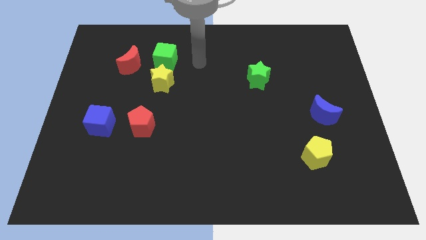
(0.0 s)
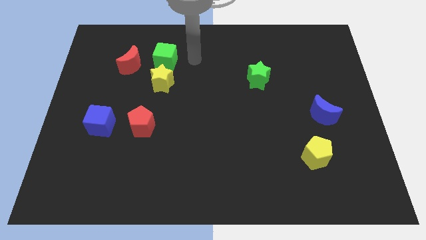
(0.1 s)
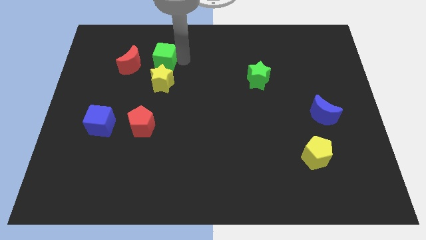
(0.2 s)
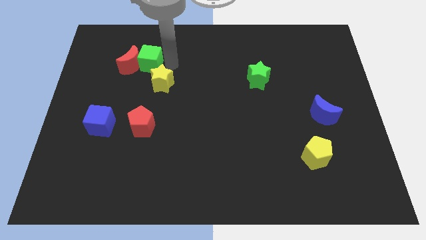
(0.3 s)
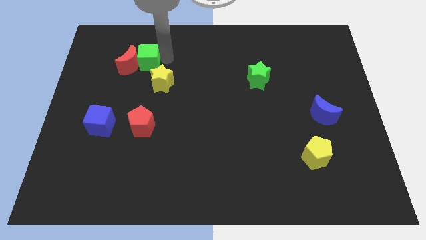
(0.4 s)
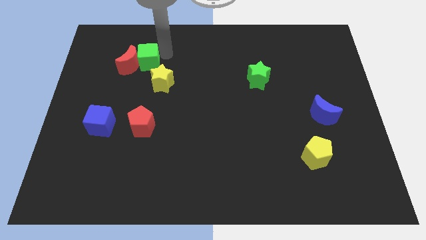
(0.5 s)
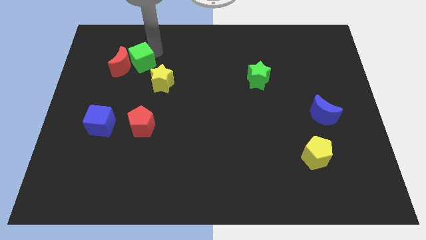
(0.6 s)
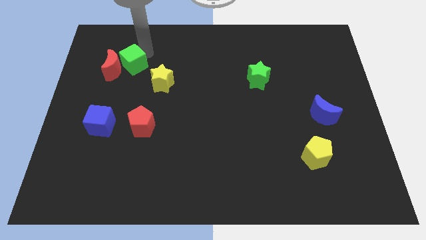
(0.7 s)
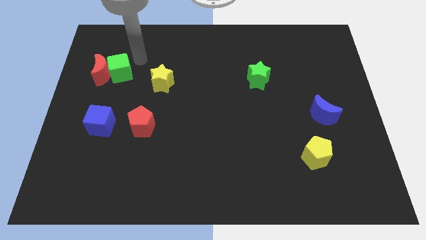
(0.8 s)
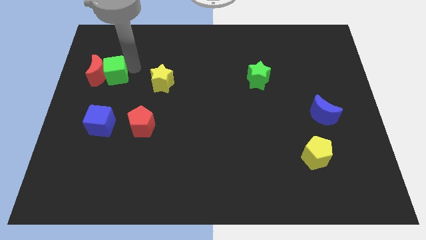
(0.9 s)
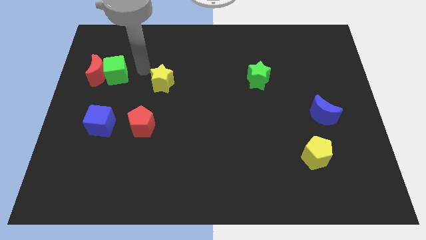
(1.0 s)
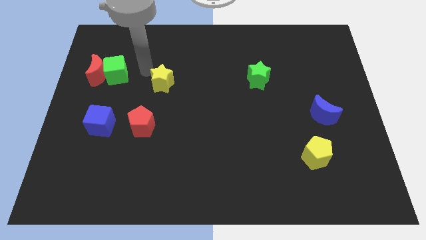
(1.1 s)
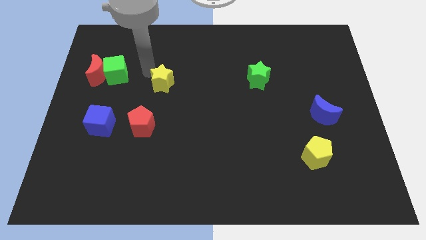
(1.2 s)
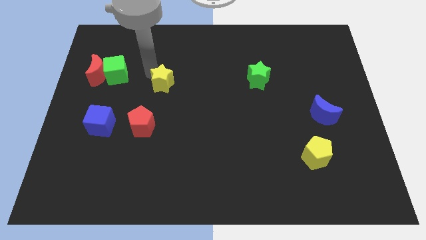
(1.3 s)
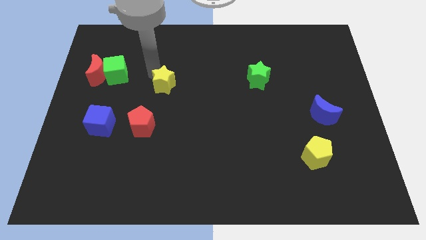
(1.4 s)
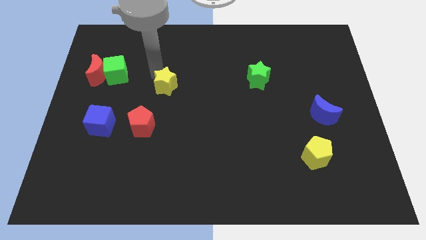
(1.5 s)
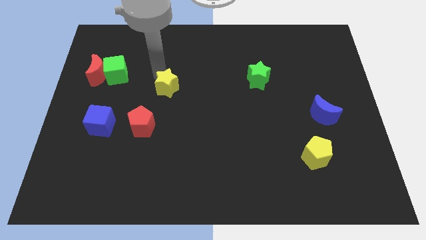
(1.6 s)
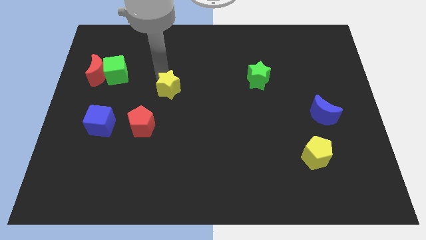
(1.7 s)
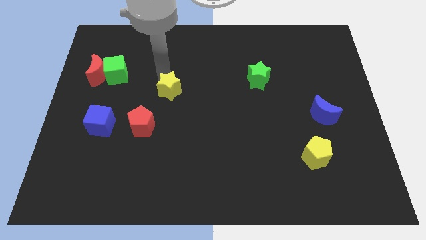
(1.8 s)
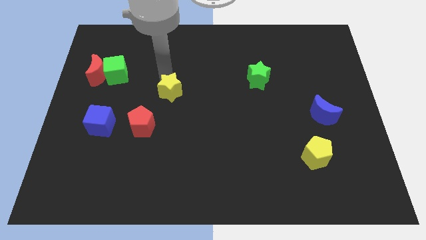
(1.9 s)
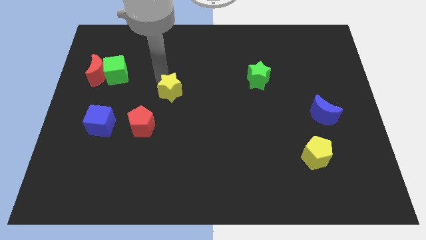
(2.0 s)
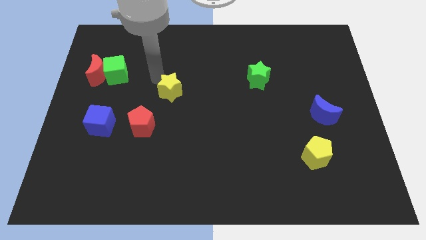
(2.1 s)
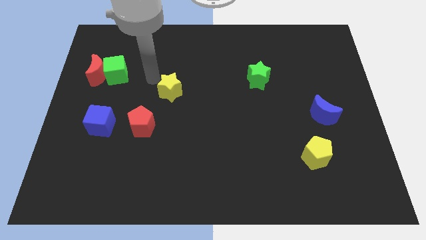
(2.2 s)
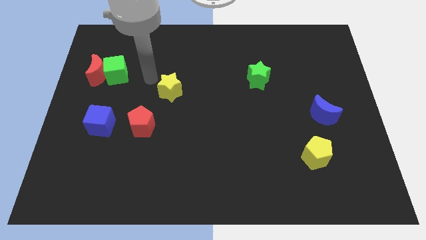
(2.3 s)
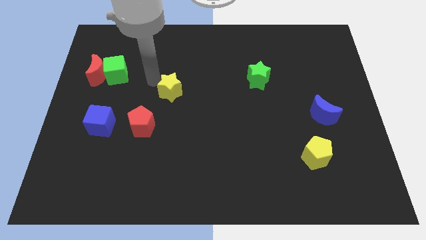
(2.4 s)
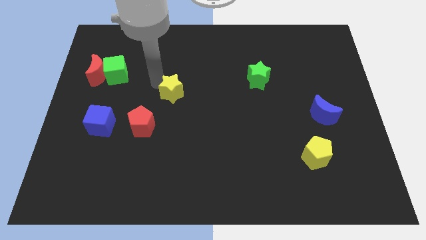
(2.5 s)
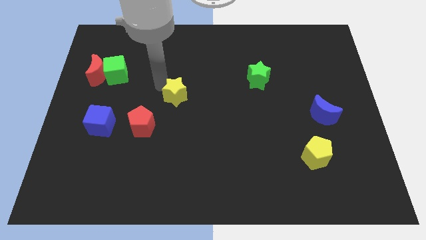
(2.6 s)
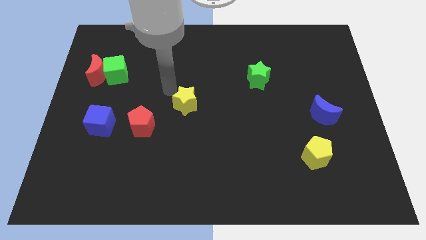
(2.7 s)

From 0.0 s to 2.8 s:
slightly slide the yellow star diagonally downwards and right

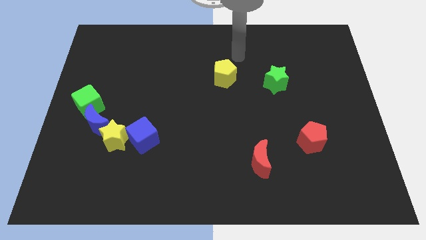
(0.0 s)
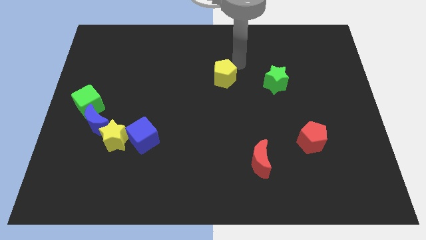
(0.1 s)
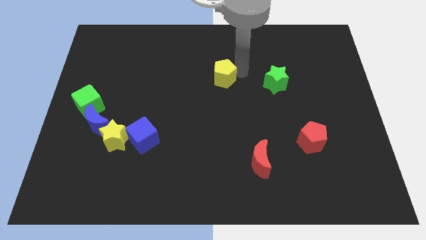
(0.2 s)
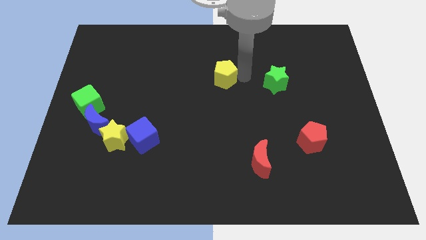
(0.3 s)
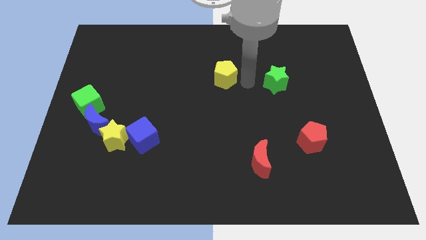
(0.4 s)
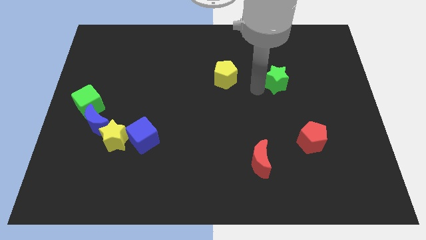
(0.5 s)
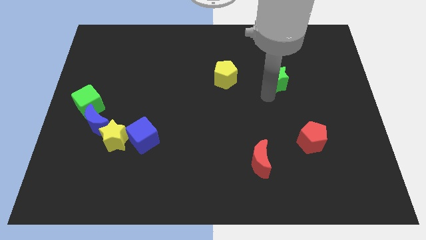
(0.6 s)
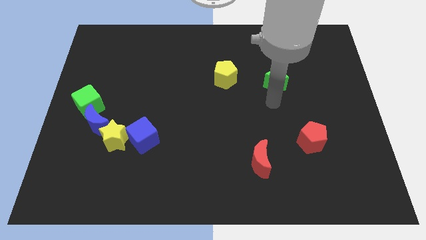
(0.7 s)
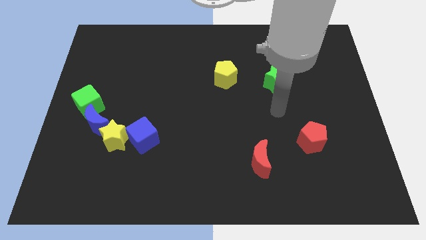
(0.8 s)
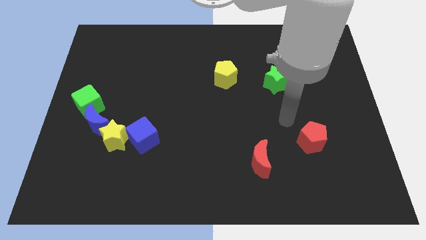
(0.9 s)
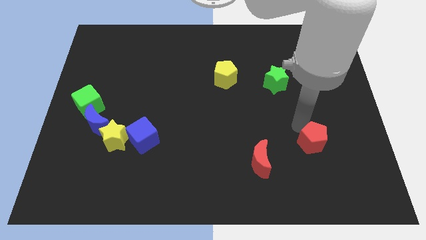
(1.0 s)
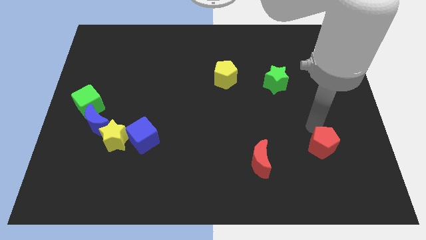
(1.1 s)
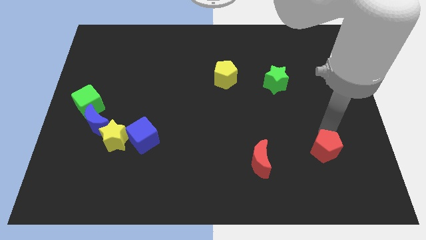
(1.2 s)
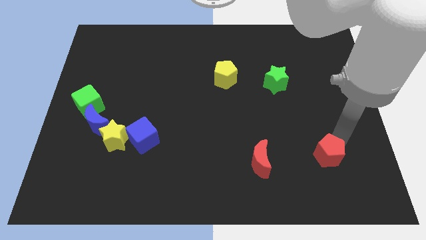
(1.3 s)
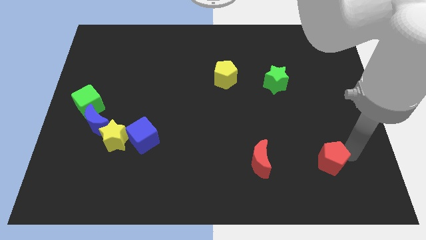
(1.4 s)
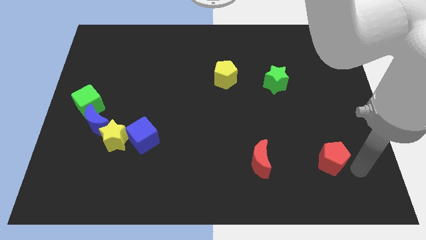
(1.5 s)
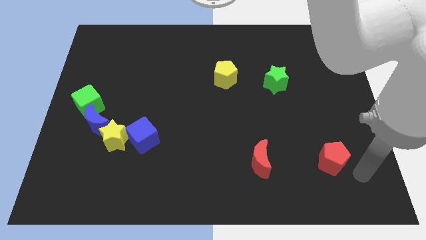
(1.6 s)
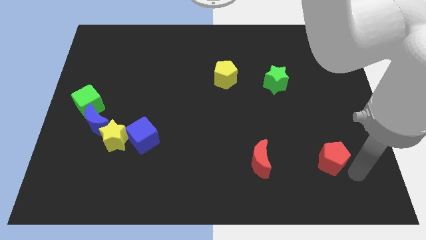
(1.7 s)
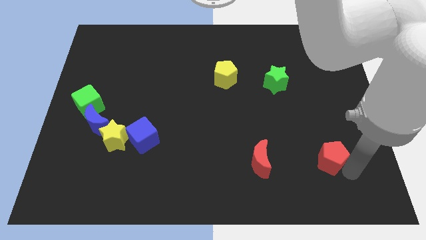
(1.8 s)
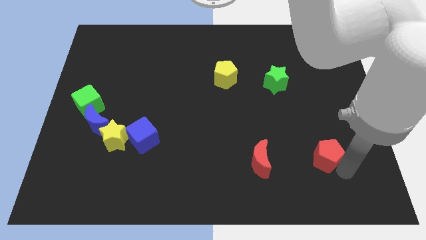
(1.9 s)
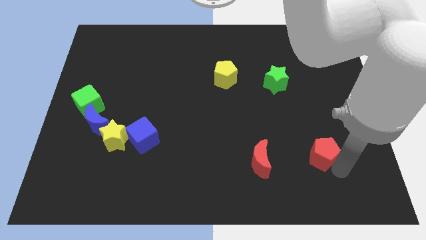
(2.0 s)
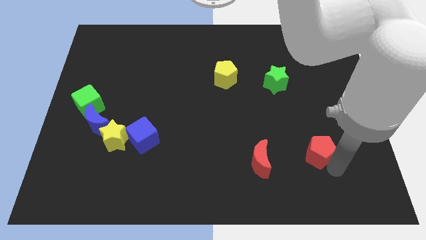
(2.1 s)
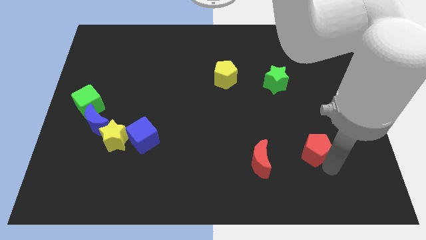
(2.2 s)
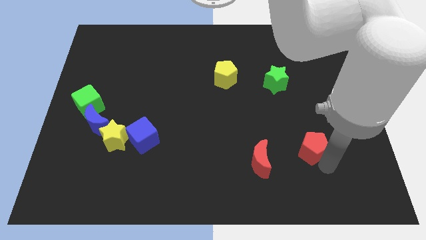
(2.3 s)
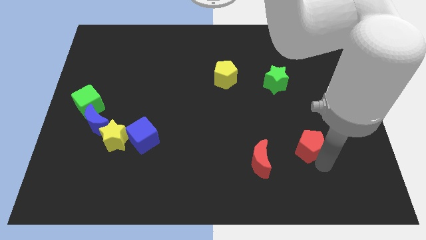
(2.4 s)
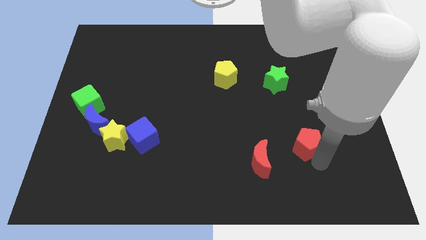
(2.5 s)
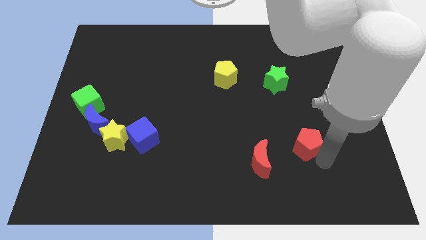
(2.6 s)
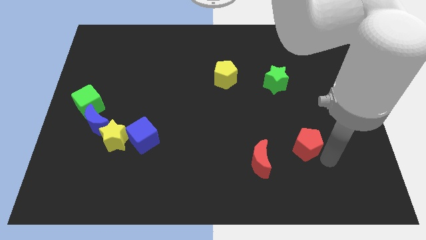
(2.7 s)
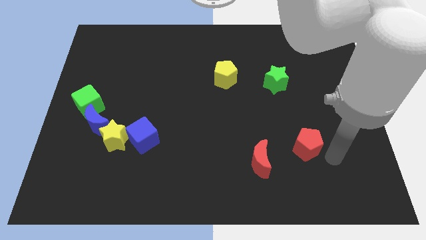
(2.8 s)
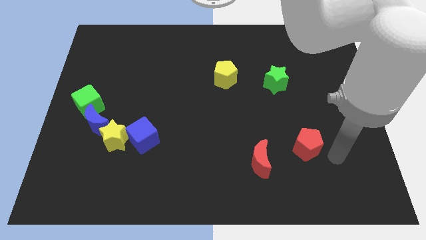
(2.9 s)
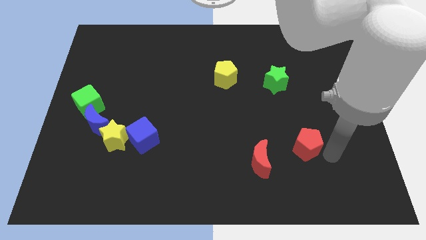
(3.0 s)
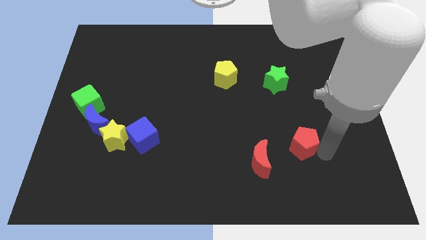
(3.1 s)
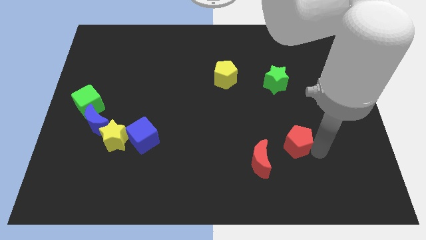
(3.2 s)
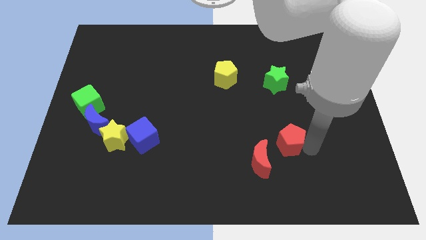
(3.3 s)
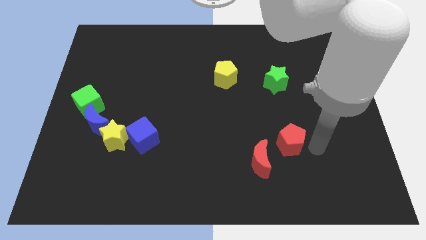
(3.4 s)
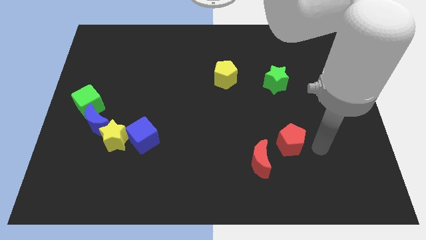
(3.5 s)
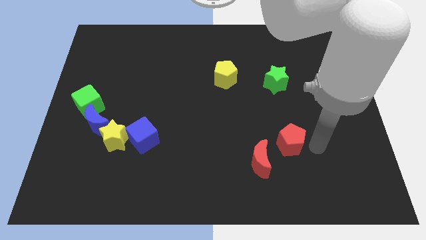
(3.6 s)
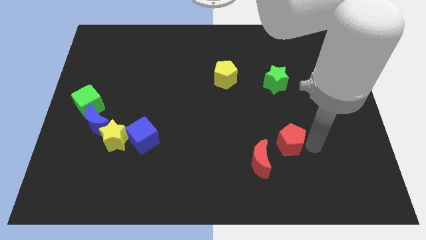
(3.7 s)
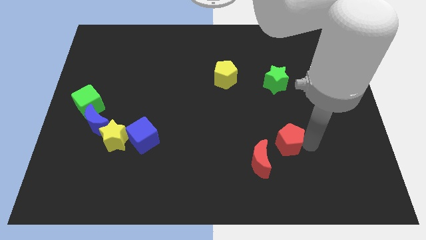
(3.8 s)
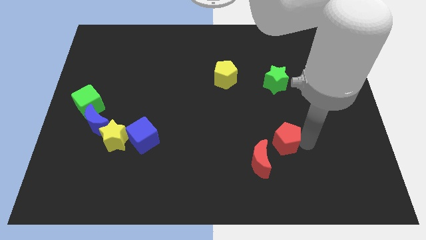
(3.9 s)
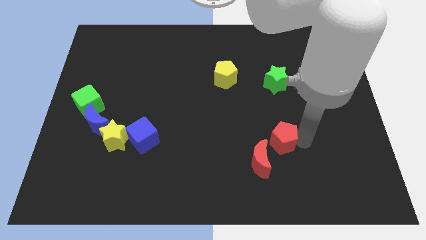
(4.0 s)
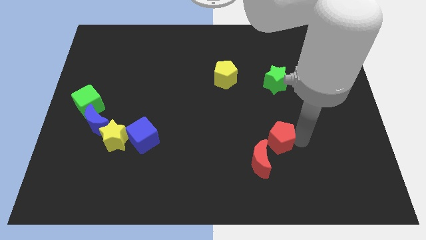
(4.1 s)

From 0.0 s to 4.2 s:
push the red pentagon a little bit left

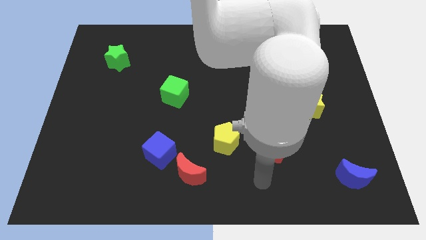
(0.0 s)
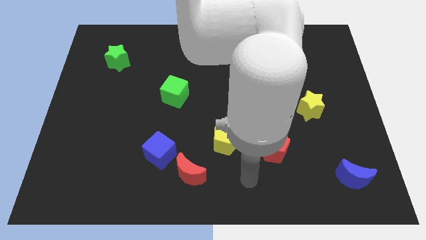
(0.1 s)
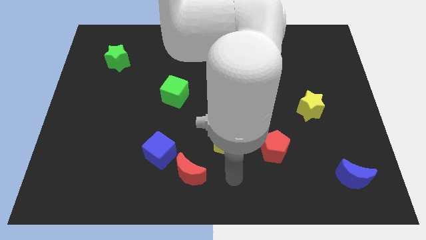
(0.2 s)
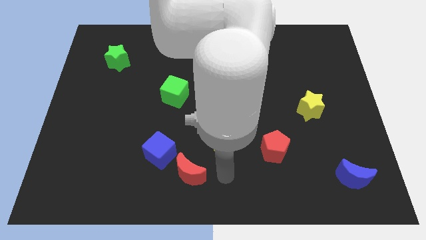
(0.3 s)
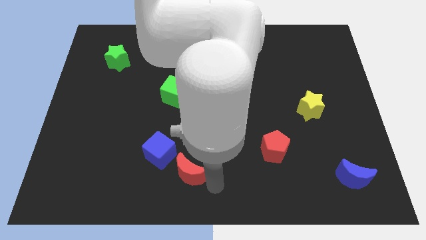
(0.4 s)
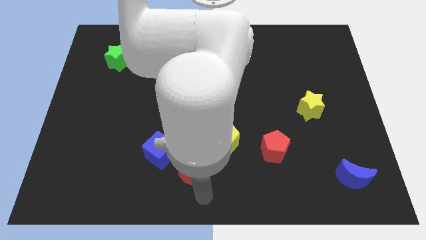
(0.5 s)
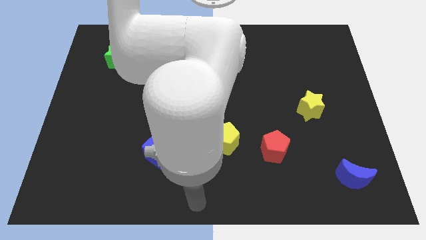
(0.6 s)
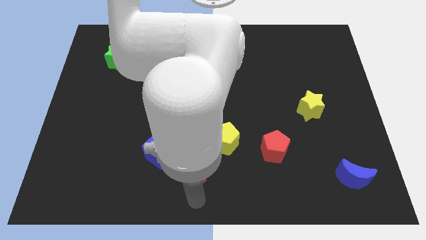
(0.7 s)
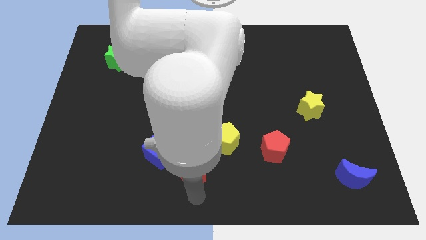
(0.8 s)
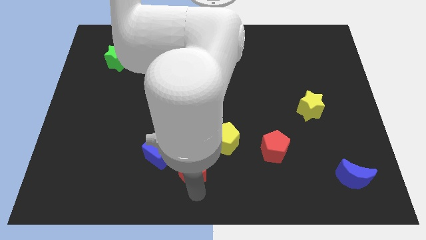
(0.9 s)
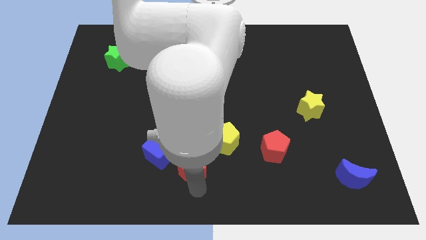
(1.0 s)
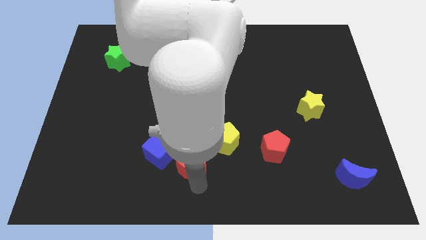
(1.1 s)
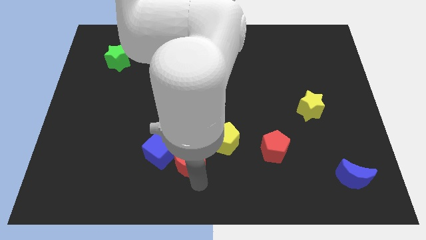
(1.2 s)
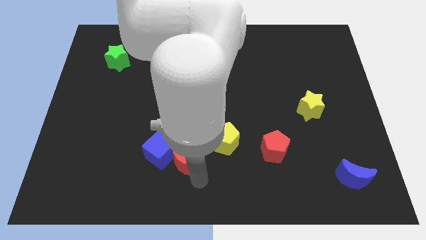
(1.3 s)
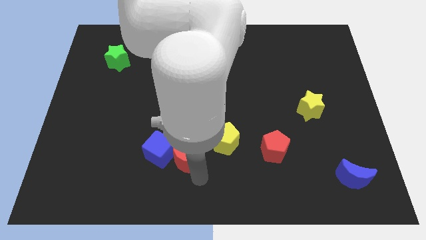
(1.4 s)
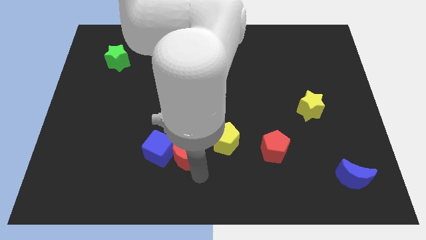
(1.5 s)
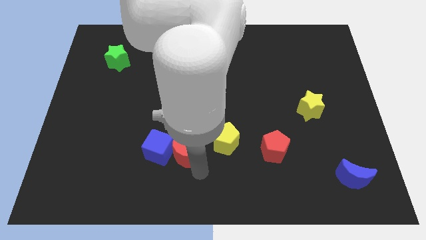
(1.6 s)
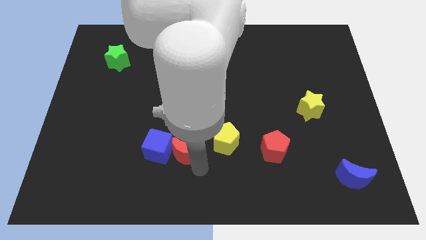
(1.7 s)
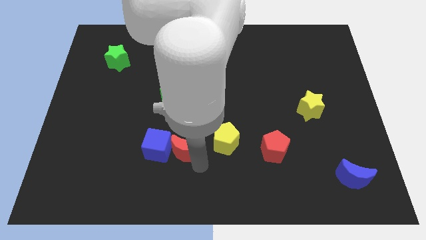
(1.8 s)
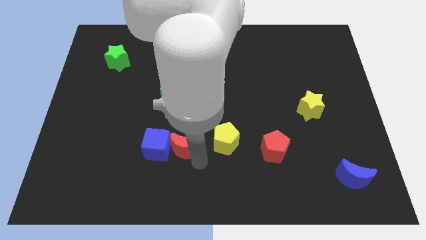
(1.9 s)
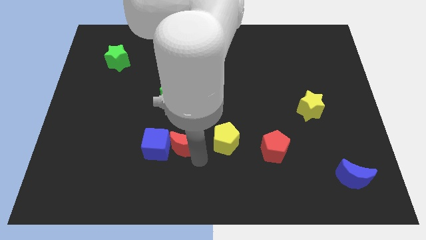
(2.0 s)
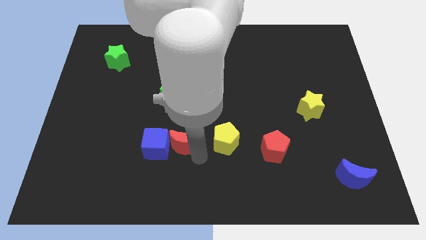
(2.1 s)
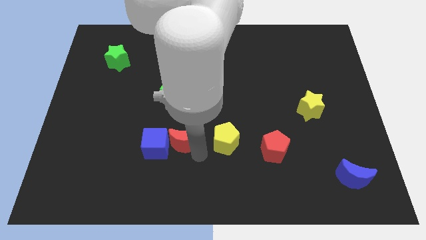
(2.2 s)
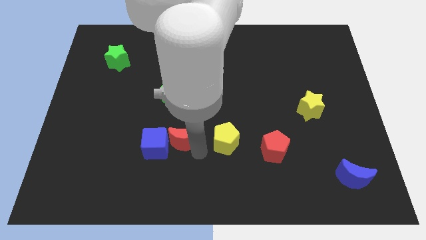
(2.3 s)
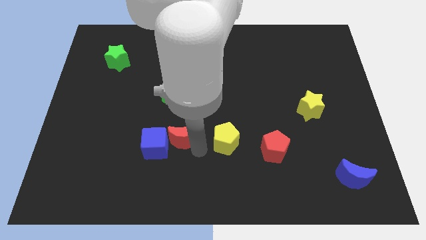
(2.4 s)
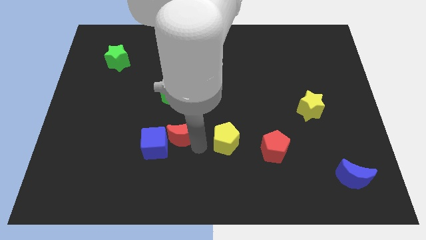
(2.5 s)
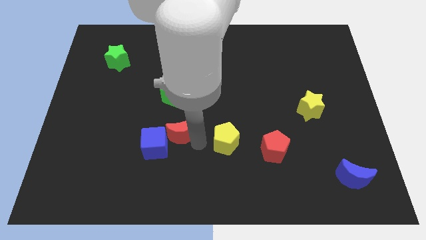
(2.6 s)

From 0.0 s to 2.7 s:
move the red moon diagonally upwards and to the left somewhat
